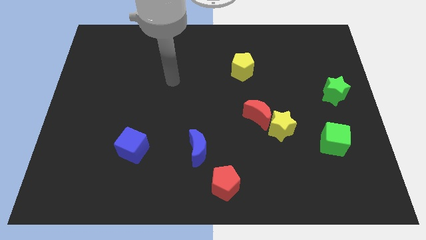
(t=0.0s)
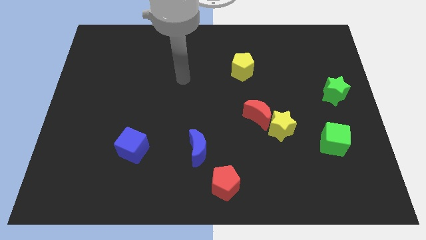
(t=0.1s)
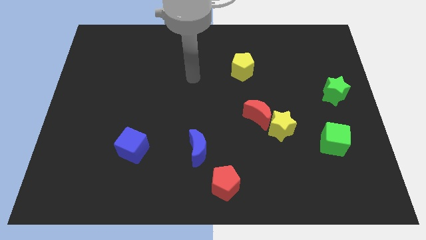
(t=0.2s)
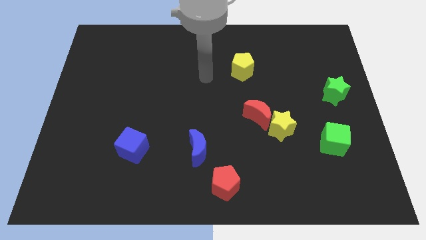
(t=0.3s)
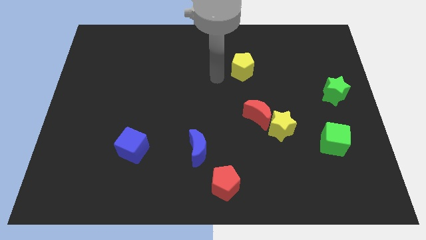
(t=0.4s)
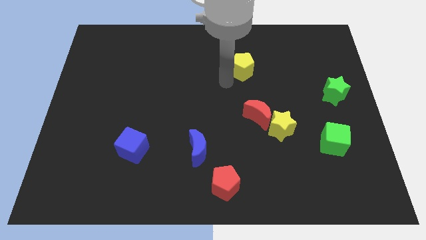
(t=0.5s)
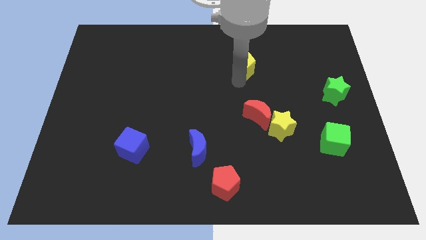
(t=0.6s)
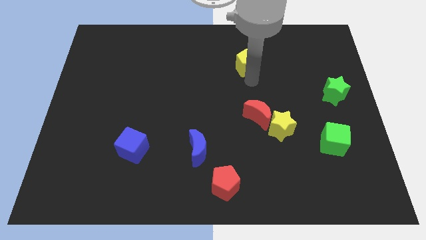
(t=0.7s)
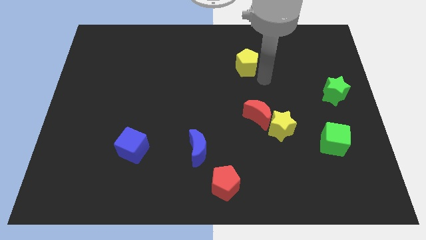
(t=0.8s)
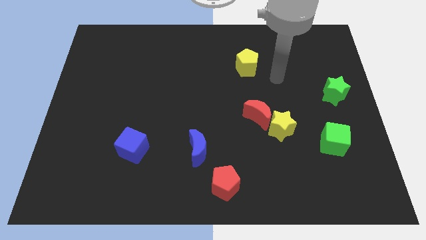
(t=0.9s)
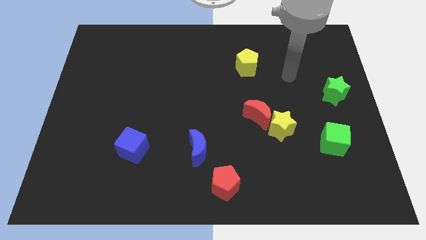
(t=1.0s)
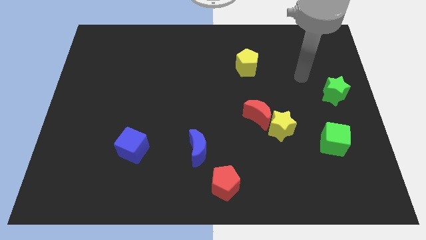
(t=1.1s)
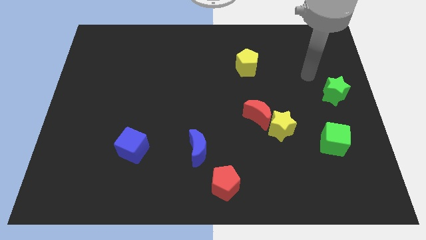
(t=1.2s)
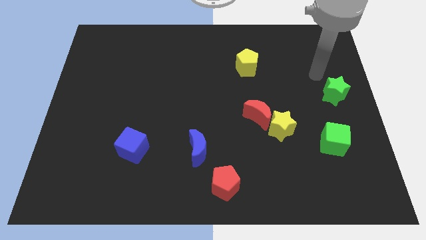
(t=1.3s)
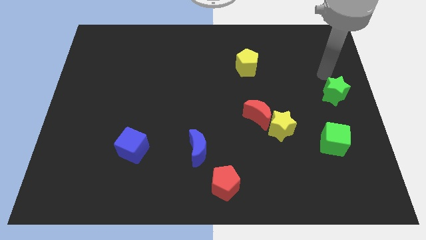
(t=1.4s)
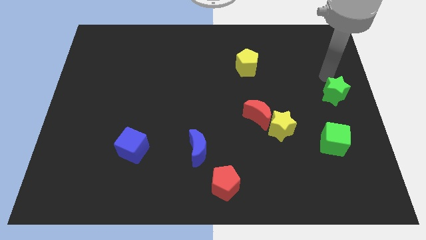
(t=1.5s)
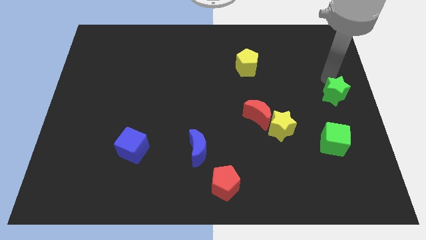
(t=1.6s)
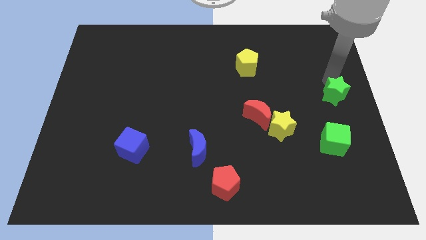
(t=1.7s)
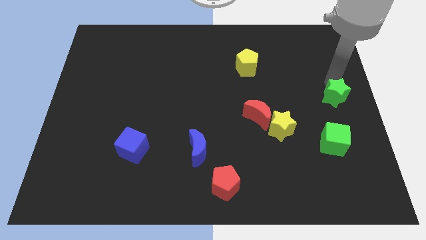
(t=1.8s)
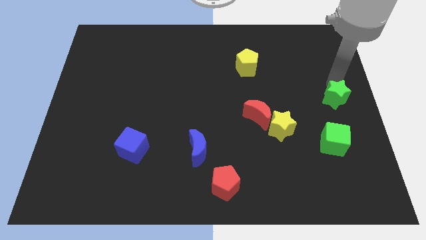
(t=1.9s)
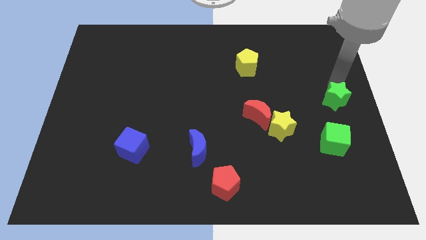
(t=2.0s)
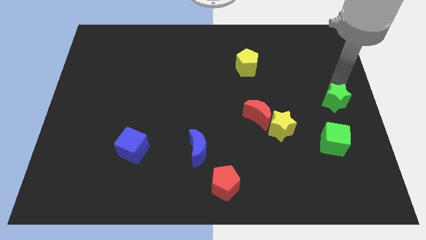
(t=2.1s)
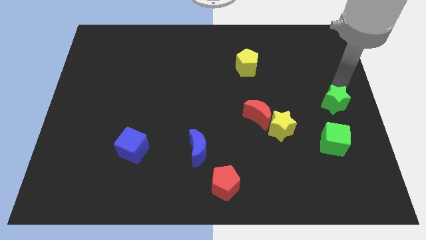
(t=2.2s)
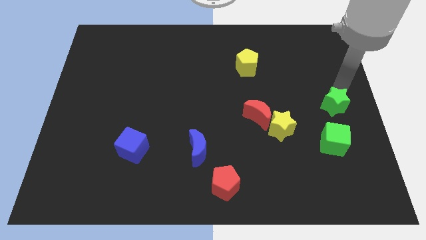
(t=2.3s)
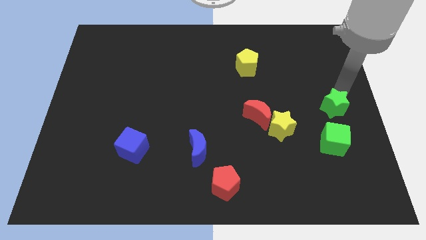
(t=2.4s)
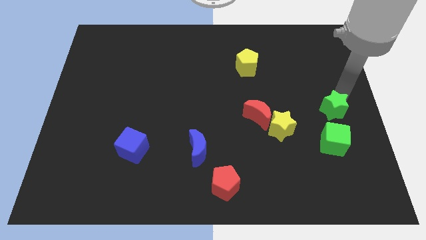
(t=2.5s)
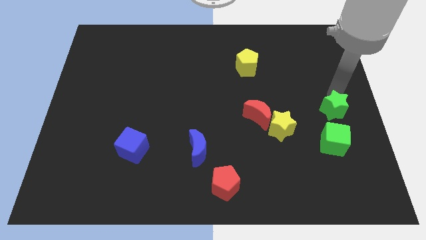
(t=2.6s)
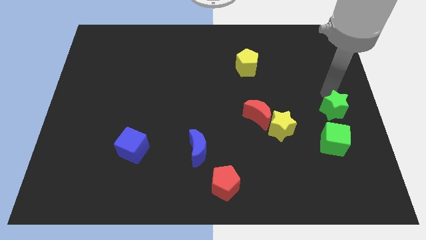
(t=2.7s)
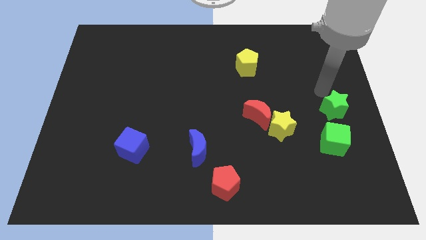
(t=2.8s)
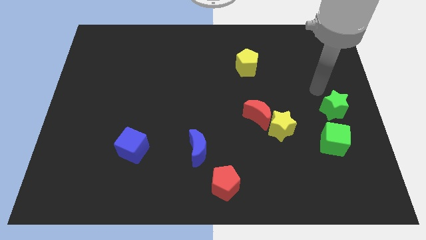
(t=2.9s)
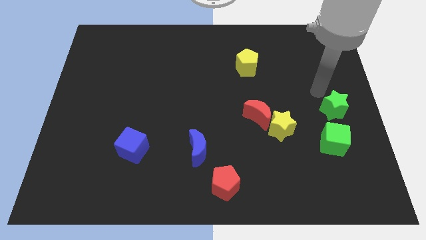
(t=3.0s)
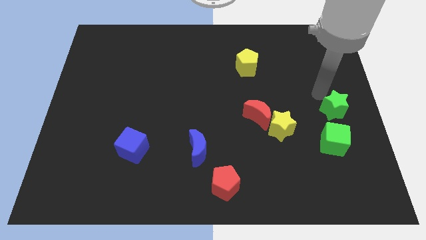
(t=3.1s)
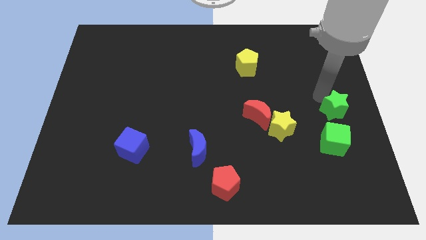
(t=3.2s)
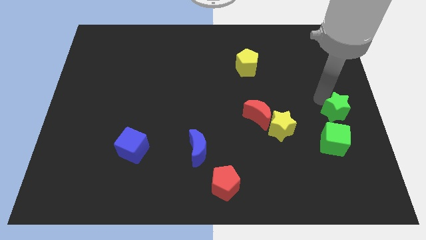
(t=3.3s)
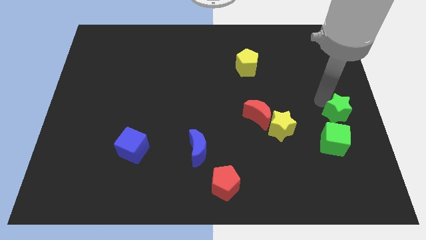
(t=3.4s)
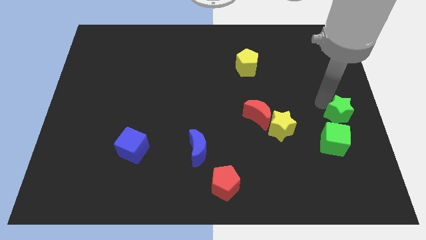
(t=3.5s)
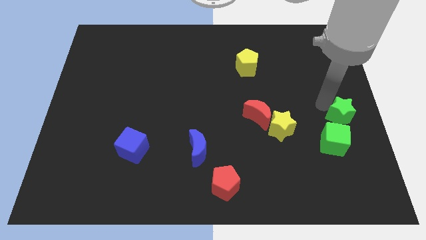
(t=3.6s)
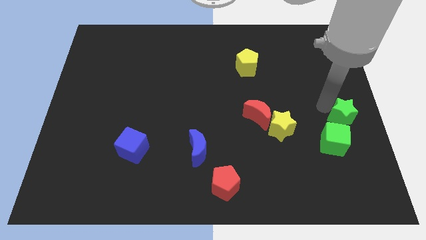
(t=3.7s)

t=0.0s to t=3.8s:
slide the green star downwards a bit

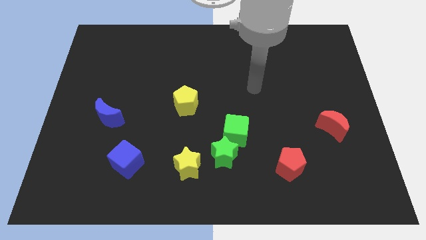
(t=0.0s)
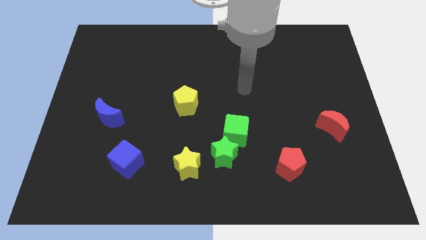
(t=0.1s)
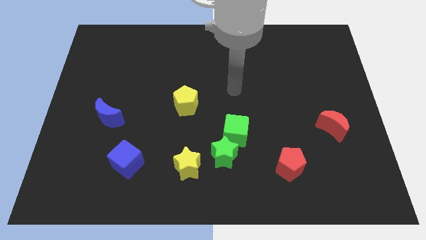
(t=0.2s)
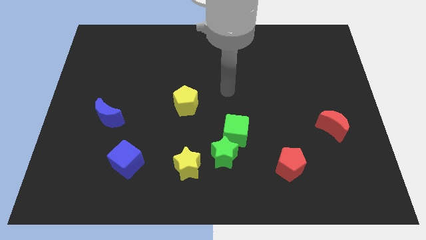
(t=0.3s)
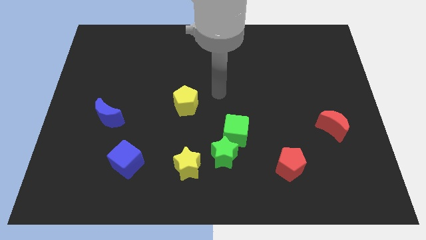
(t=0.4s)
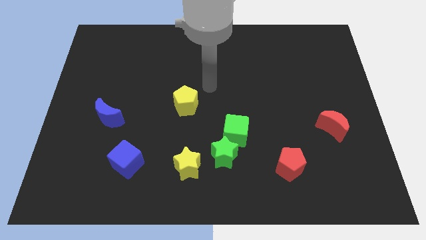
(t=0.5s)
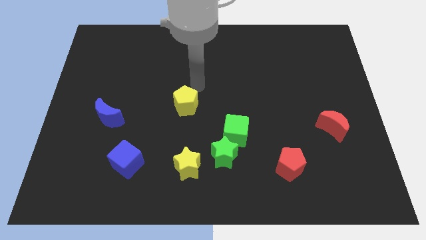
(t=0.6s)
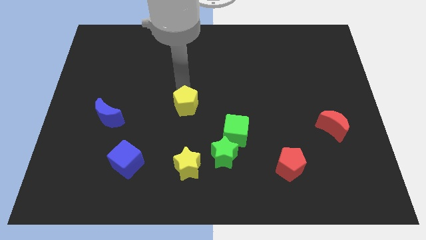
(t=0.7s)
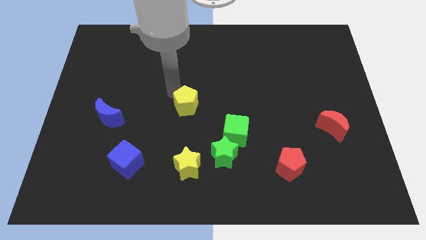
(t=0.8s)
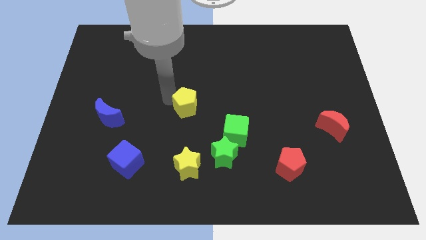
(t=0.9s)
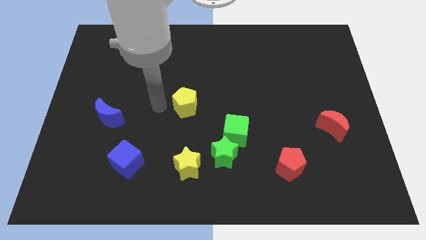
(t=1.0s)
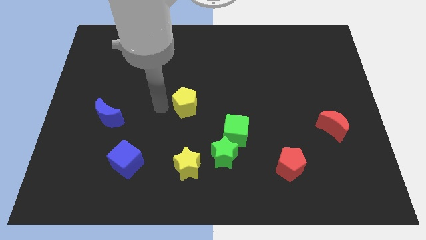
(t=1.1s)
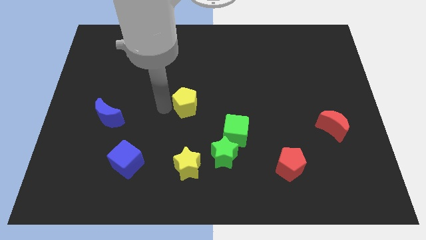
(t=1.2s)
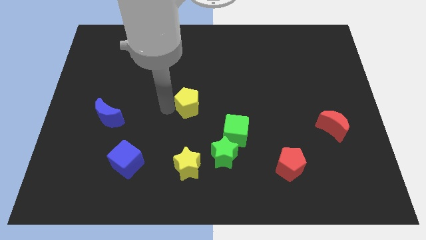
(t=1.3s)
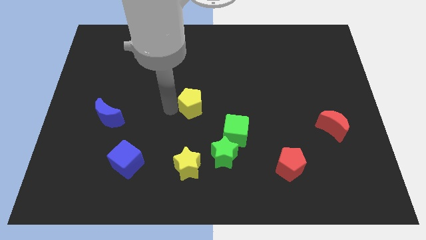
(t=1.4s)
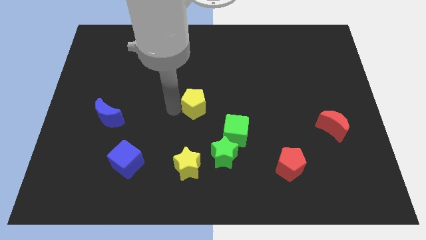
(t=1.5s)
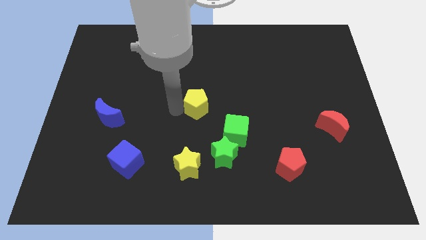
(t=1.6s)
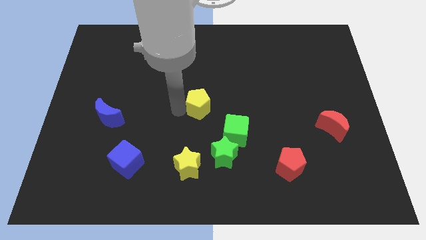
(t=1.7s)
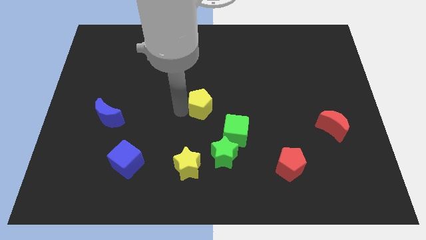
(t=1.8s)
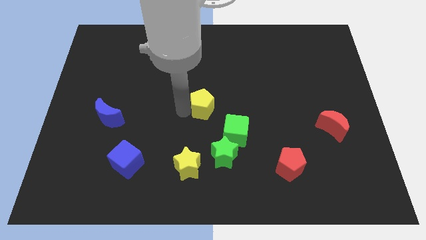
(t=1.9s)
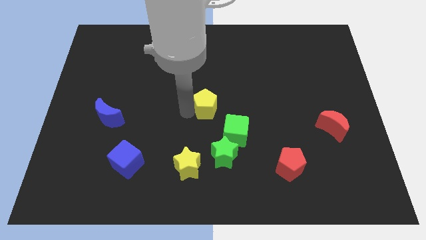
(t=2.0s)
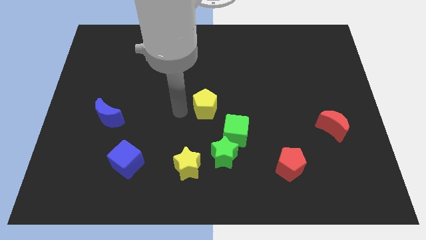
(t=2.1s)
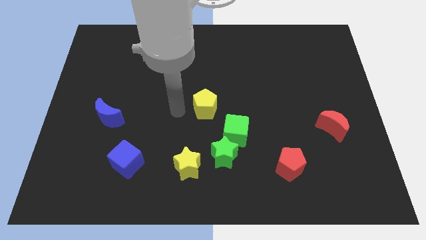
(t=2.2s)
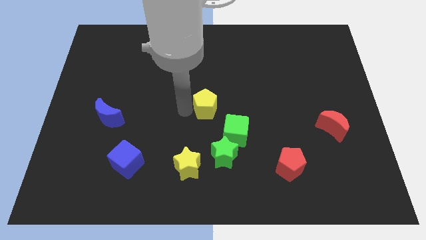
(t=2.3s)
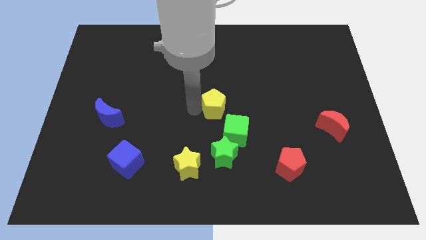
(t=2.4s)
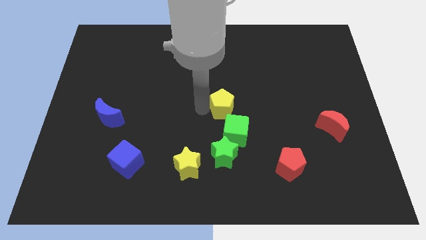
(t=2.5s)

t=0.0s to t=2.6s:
move the yellow pentagon to the right a little bit

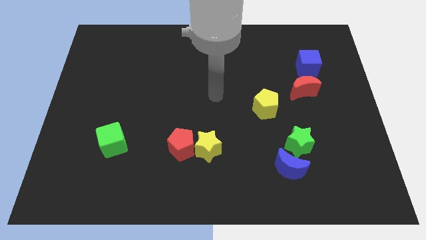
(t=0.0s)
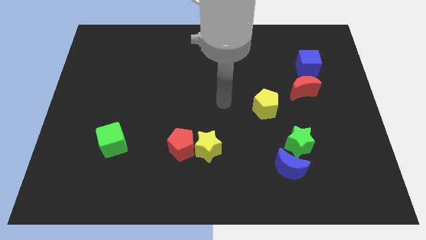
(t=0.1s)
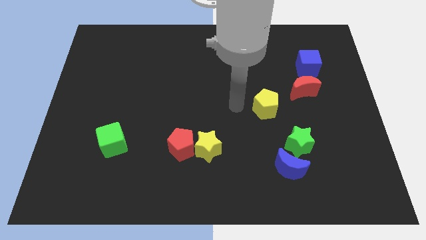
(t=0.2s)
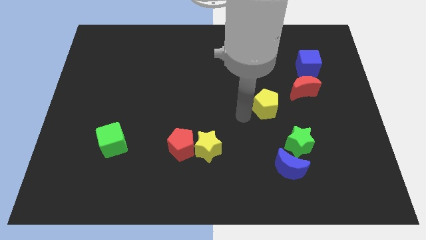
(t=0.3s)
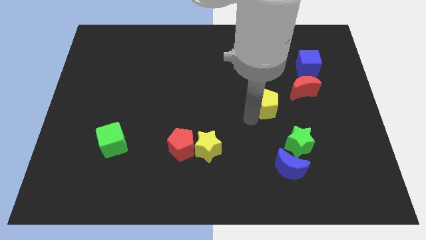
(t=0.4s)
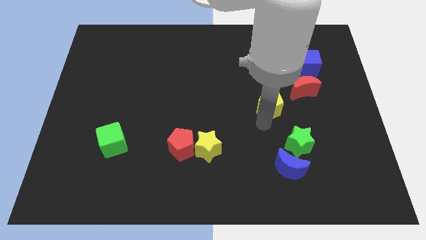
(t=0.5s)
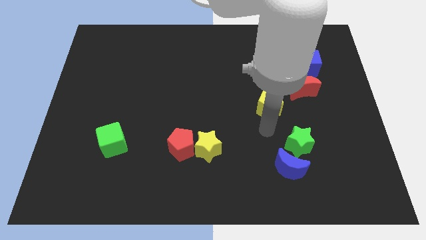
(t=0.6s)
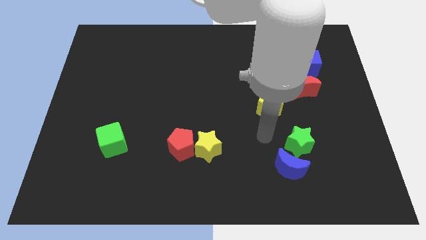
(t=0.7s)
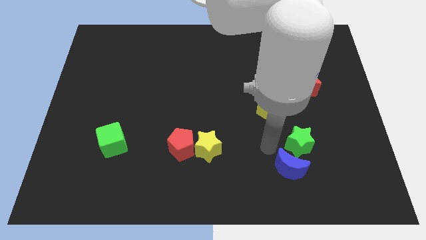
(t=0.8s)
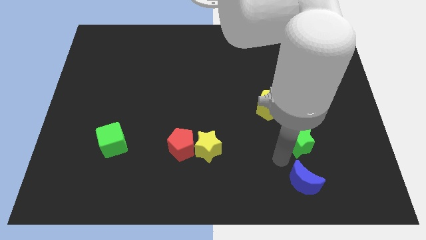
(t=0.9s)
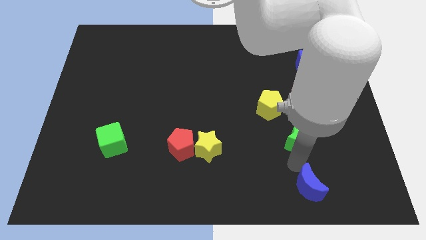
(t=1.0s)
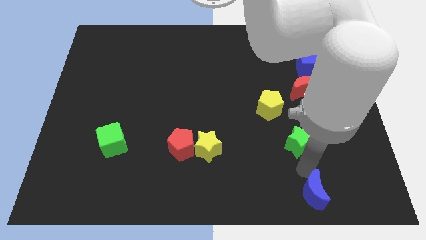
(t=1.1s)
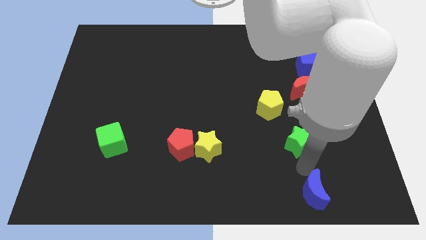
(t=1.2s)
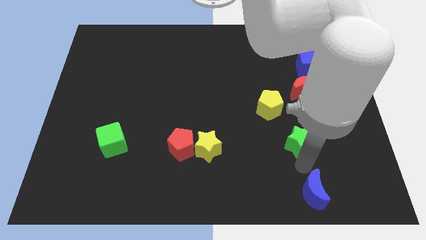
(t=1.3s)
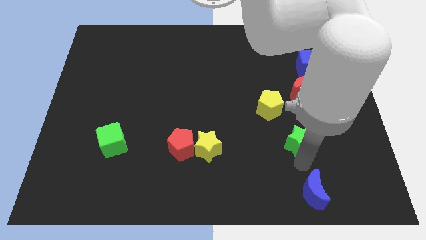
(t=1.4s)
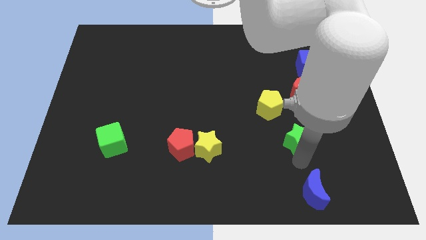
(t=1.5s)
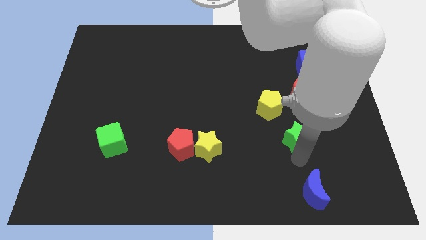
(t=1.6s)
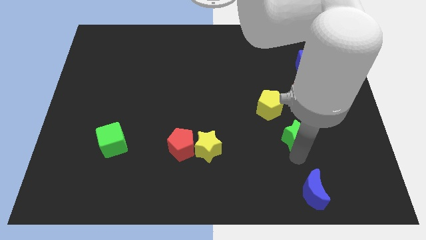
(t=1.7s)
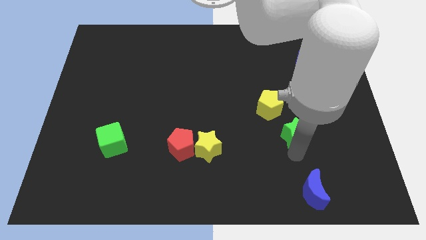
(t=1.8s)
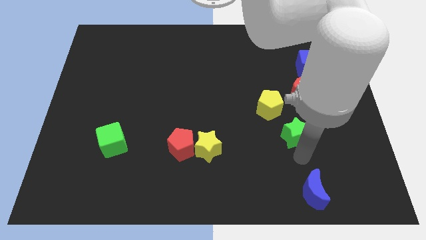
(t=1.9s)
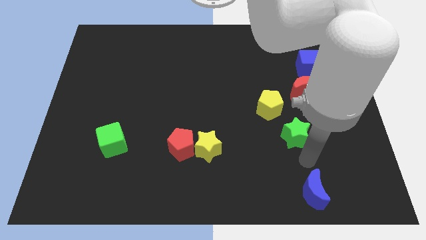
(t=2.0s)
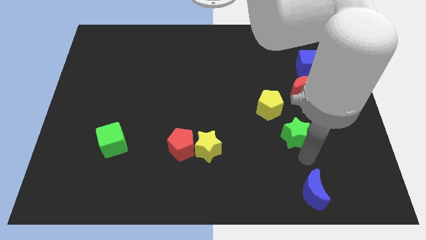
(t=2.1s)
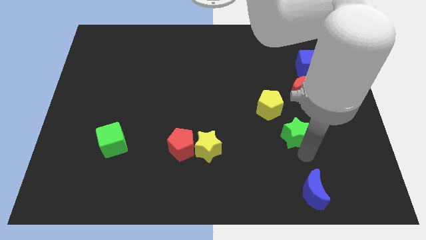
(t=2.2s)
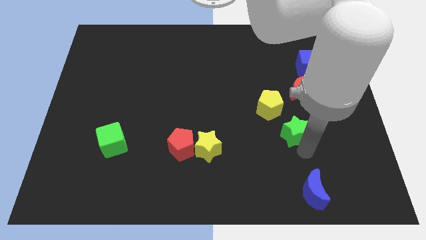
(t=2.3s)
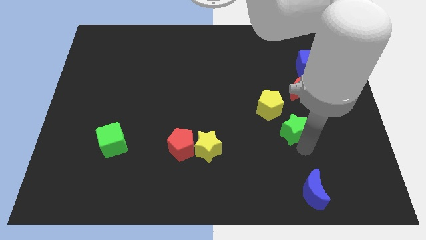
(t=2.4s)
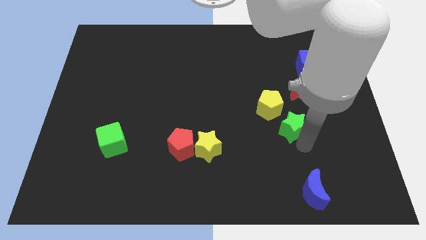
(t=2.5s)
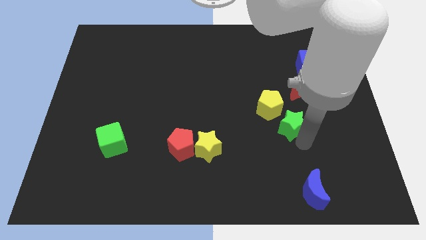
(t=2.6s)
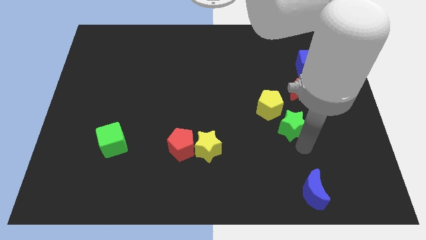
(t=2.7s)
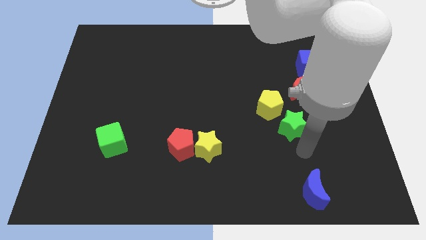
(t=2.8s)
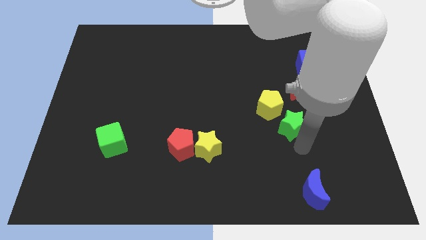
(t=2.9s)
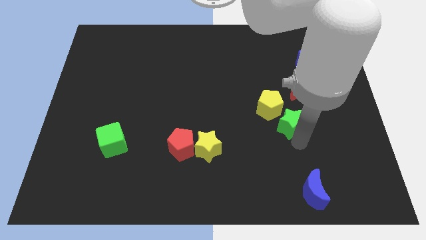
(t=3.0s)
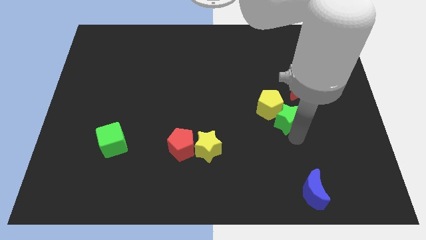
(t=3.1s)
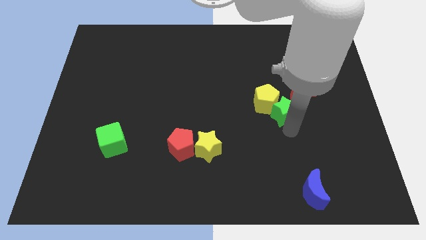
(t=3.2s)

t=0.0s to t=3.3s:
slide the green star up slightly
